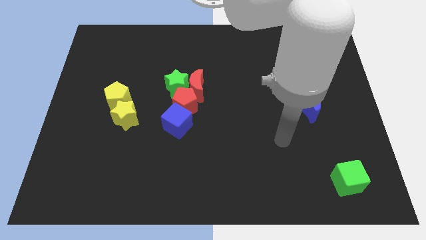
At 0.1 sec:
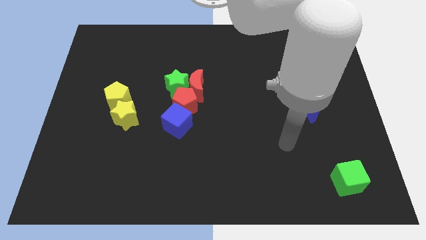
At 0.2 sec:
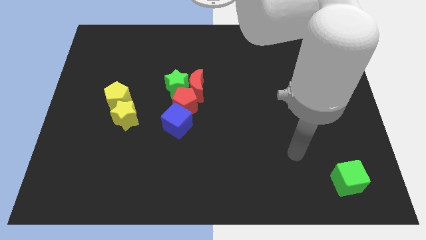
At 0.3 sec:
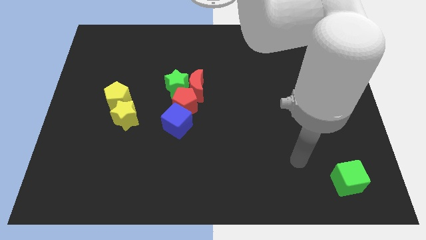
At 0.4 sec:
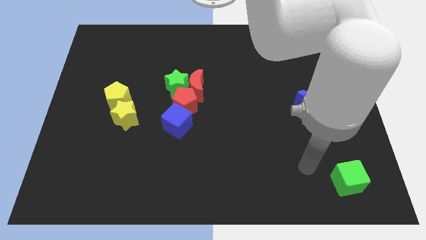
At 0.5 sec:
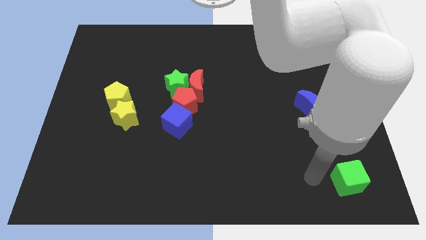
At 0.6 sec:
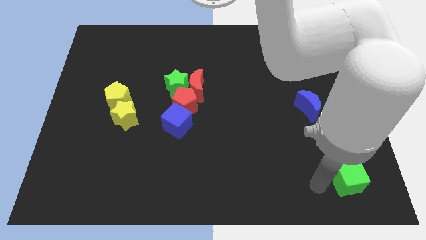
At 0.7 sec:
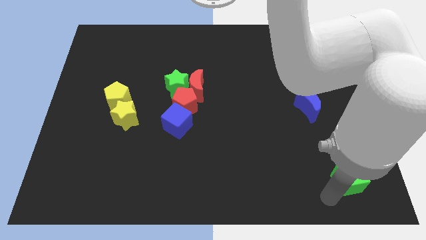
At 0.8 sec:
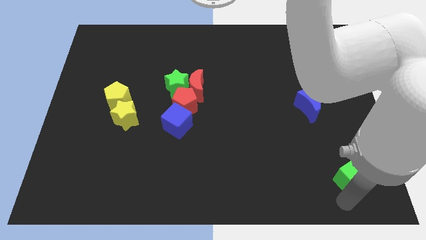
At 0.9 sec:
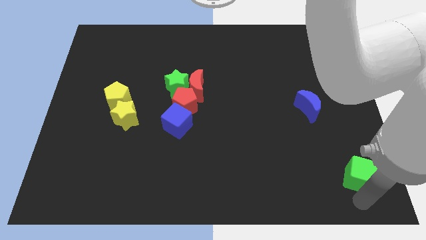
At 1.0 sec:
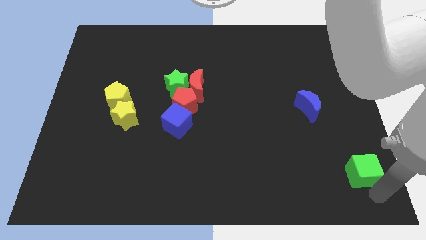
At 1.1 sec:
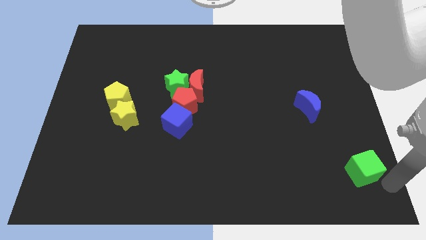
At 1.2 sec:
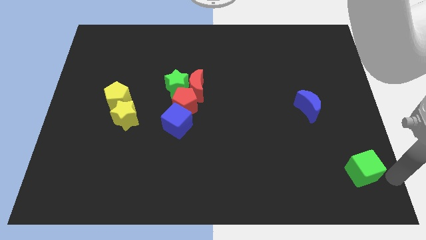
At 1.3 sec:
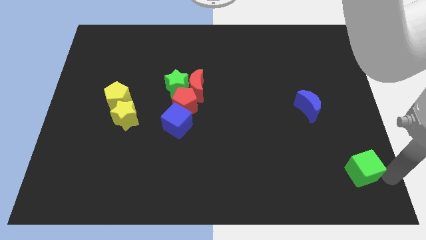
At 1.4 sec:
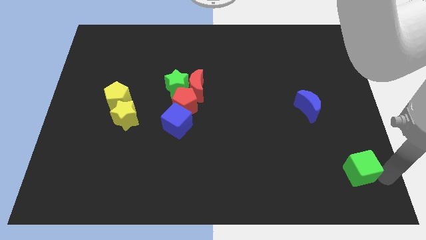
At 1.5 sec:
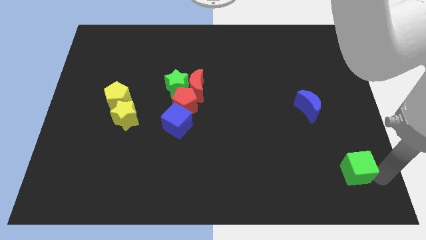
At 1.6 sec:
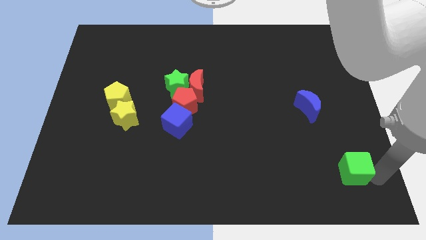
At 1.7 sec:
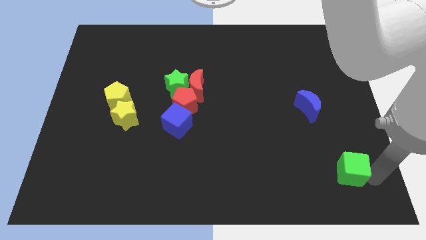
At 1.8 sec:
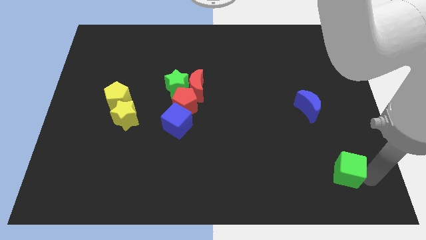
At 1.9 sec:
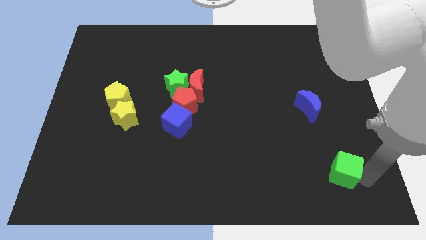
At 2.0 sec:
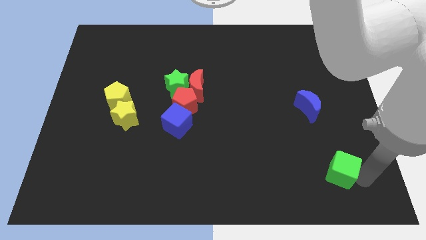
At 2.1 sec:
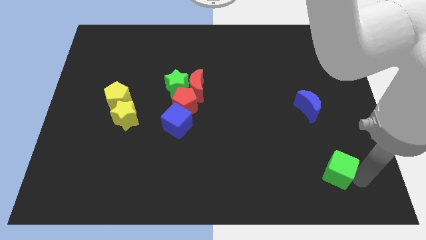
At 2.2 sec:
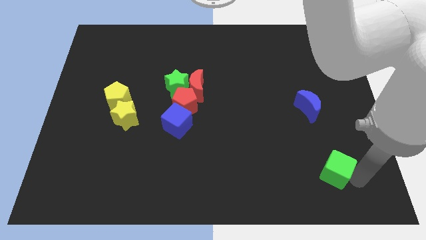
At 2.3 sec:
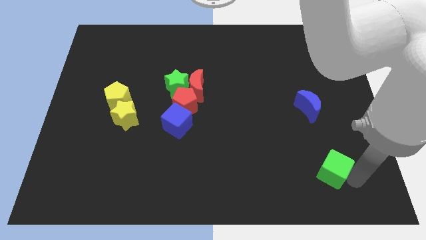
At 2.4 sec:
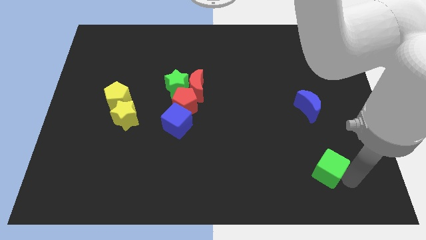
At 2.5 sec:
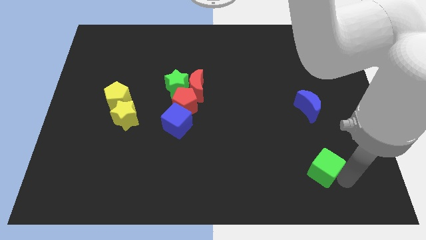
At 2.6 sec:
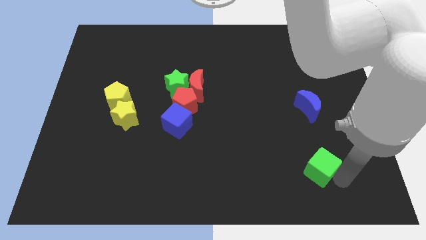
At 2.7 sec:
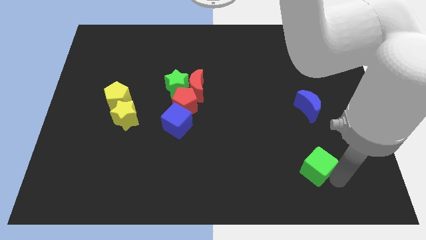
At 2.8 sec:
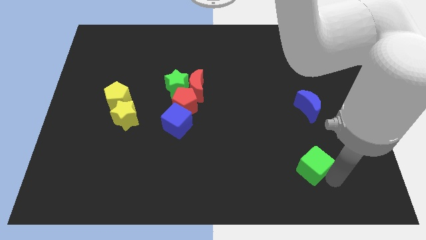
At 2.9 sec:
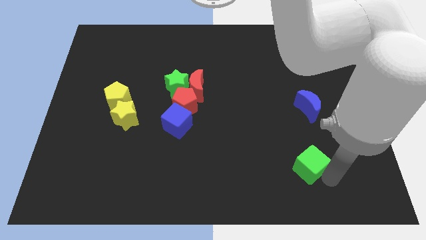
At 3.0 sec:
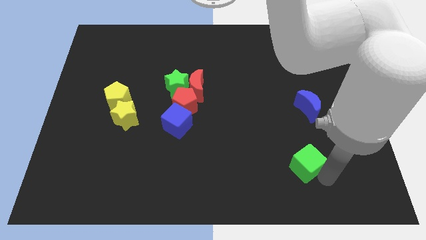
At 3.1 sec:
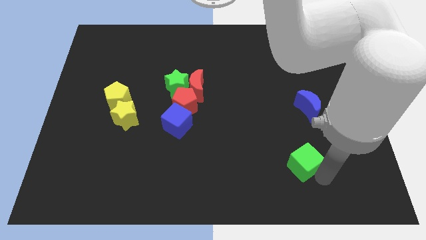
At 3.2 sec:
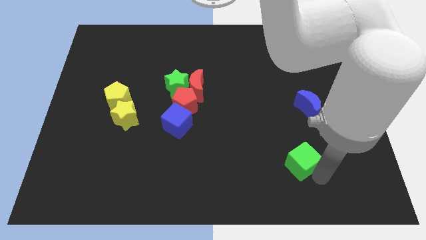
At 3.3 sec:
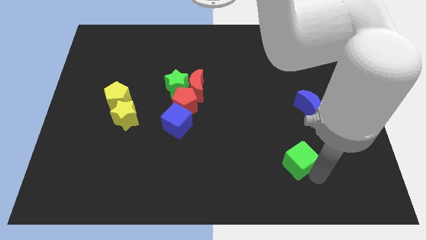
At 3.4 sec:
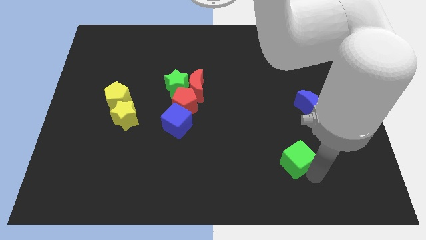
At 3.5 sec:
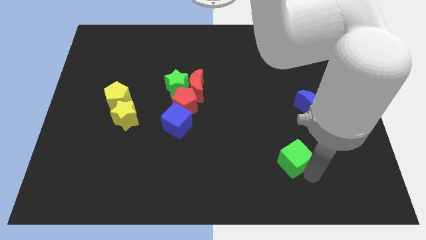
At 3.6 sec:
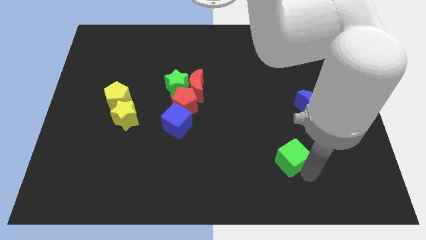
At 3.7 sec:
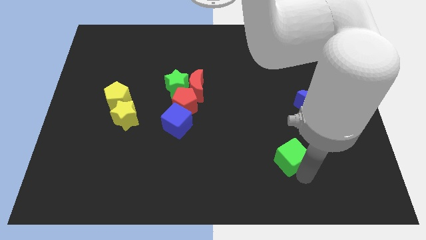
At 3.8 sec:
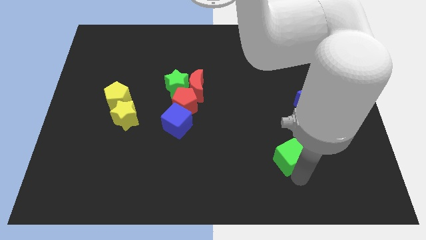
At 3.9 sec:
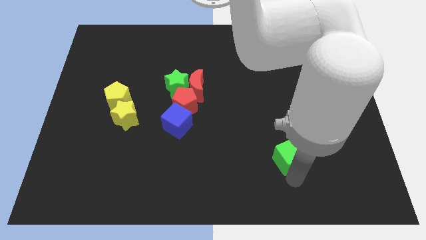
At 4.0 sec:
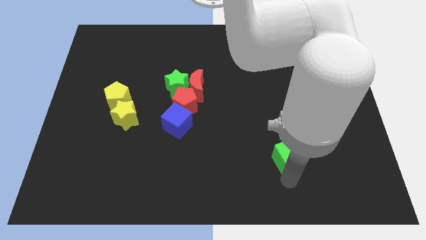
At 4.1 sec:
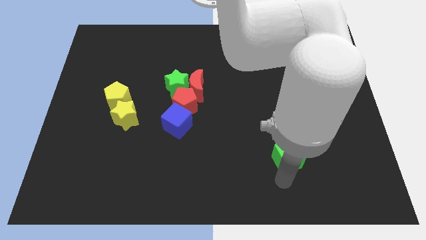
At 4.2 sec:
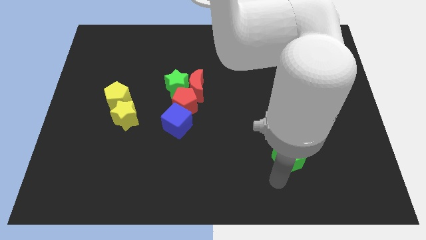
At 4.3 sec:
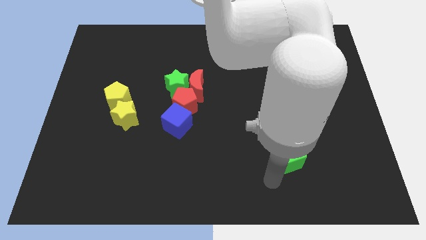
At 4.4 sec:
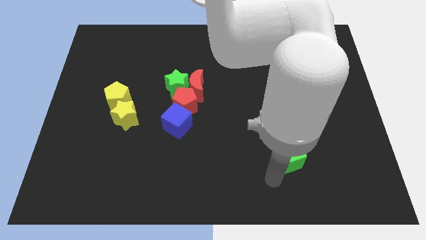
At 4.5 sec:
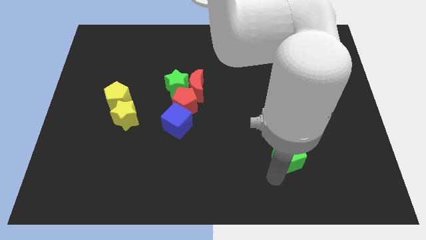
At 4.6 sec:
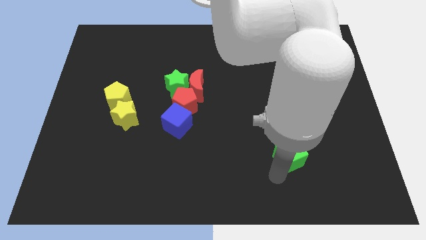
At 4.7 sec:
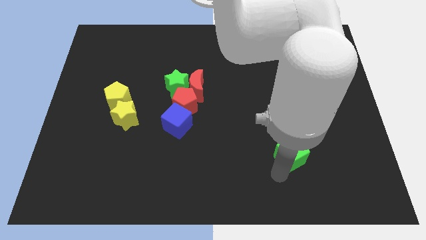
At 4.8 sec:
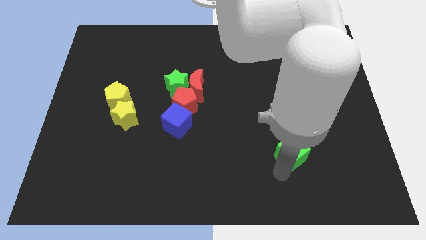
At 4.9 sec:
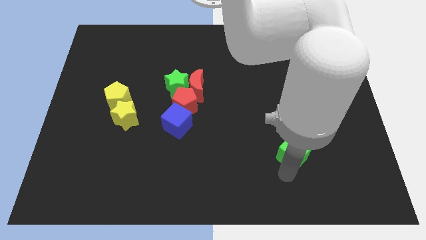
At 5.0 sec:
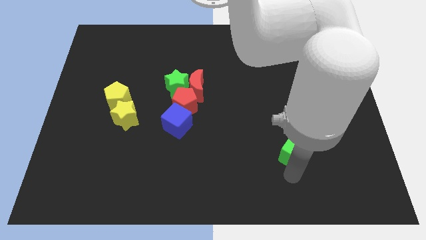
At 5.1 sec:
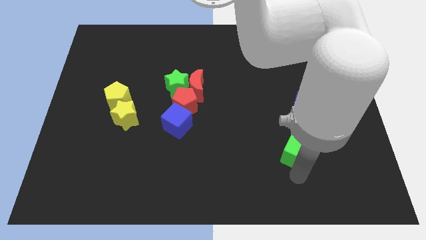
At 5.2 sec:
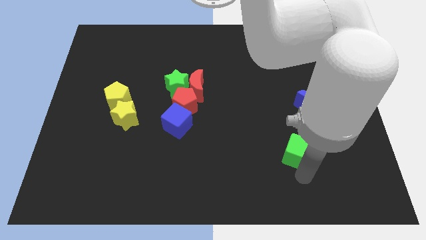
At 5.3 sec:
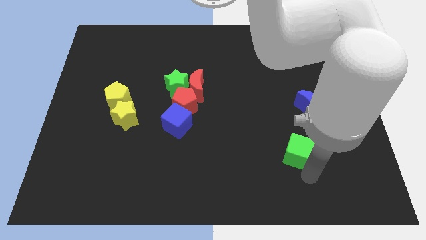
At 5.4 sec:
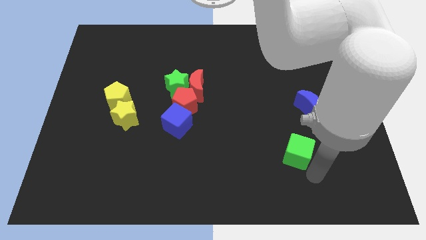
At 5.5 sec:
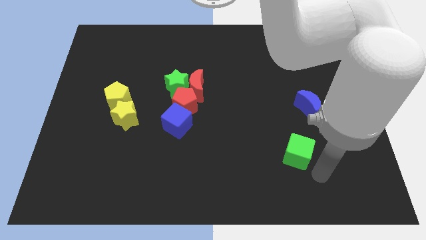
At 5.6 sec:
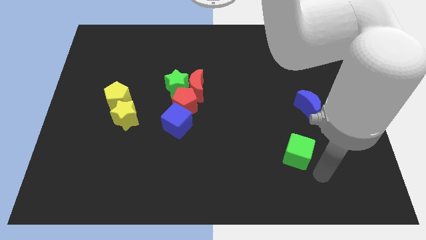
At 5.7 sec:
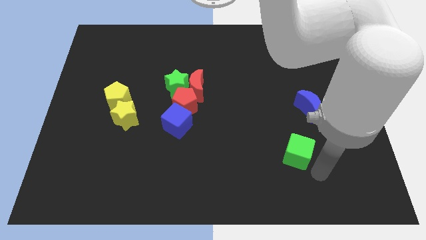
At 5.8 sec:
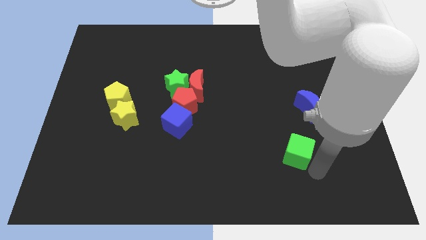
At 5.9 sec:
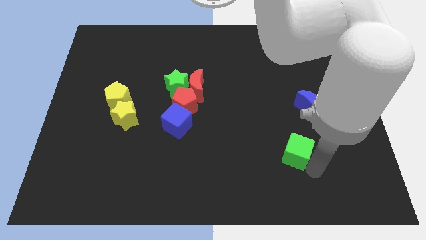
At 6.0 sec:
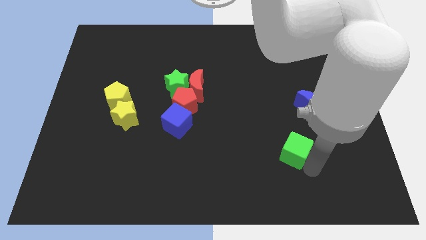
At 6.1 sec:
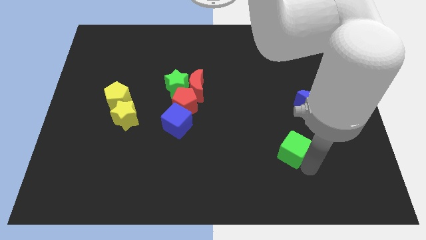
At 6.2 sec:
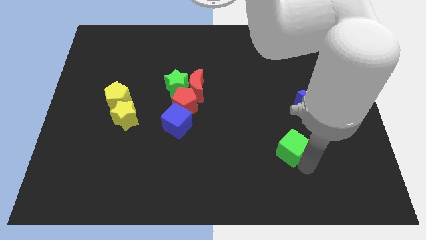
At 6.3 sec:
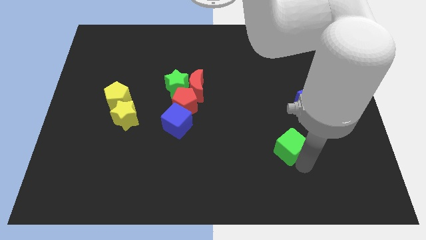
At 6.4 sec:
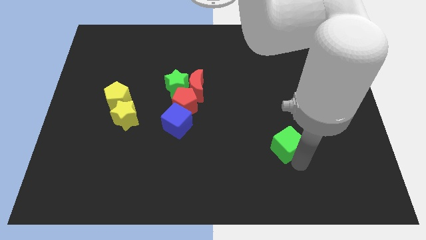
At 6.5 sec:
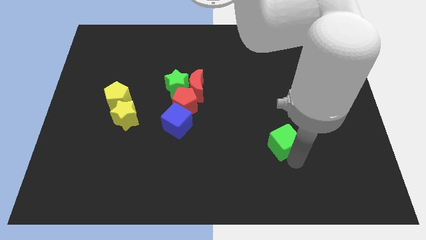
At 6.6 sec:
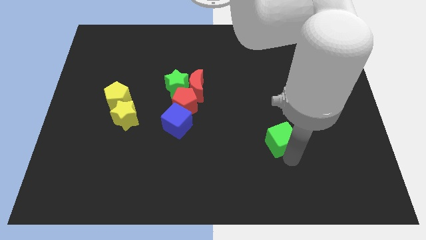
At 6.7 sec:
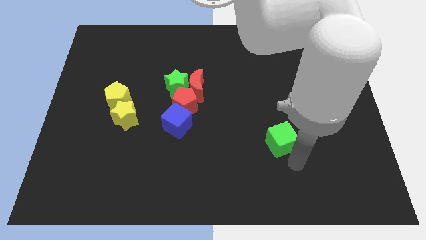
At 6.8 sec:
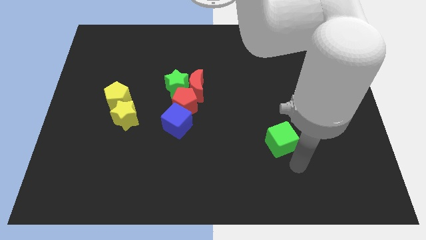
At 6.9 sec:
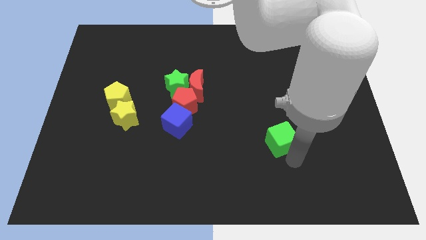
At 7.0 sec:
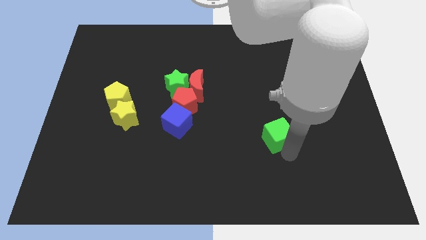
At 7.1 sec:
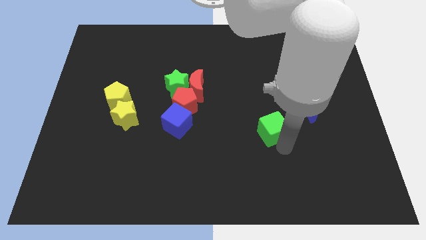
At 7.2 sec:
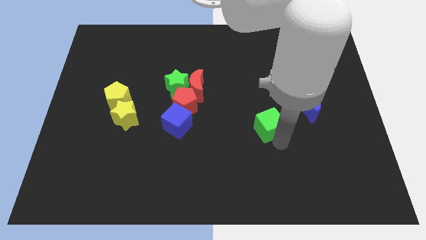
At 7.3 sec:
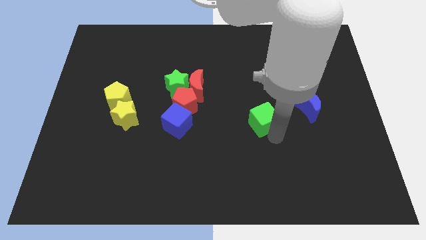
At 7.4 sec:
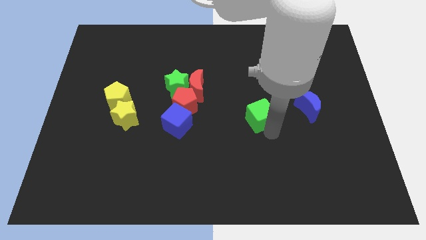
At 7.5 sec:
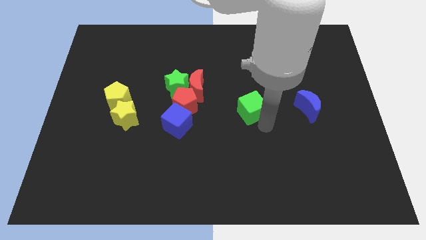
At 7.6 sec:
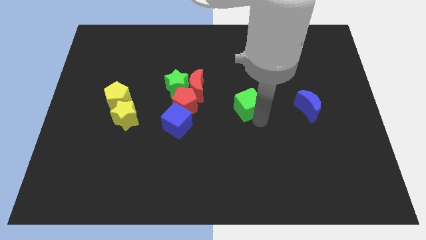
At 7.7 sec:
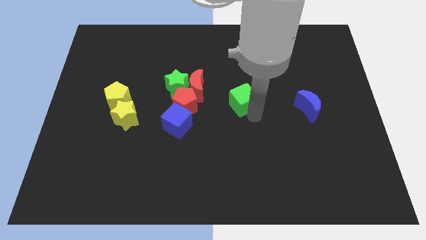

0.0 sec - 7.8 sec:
push the green cube to the right side of the red moon
